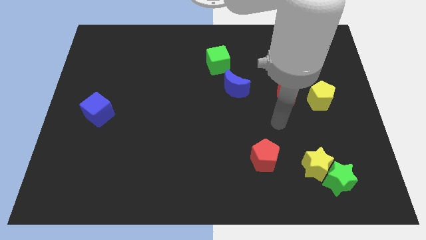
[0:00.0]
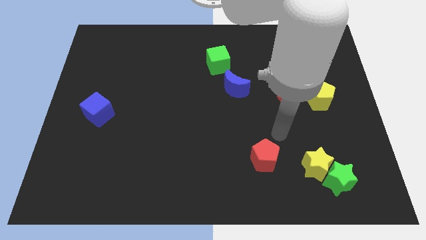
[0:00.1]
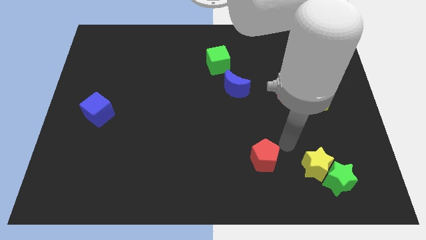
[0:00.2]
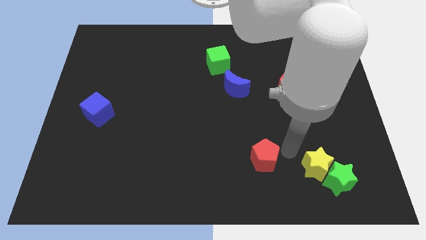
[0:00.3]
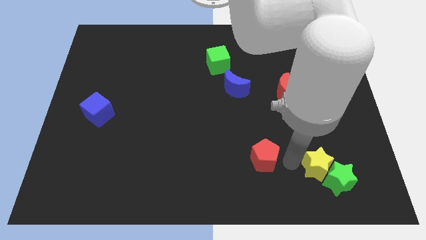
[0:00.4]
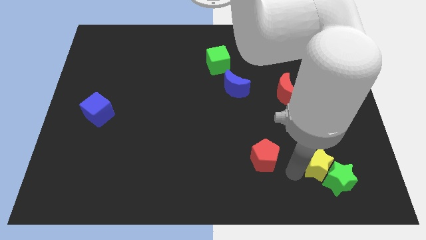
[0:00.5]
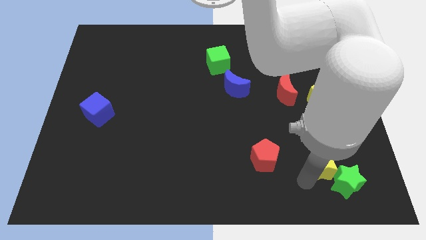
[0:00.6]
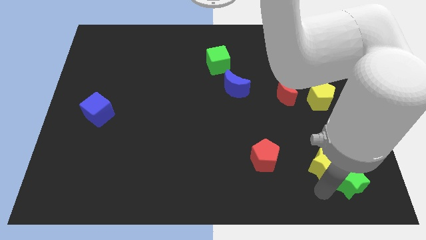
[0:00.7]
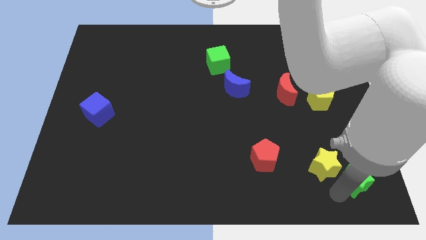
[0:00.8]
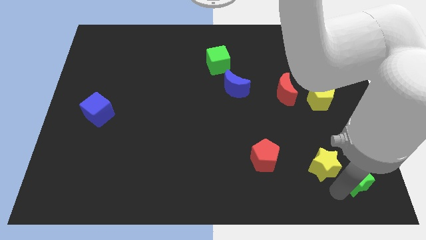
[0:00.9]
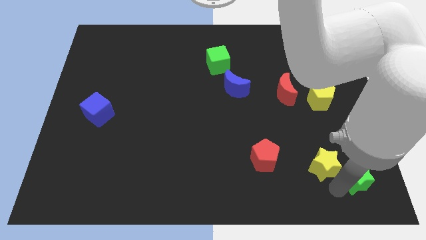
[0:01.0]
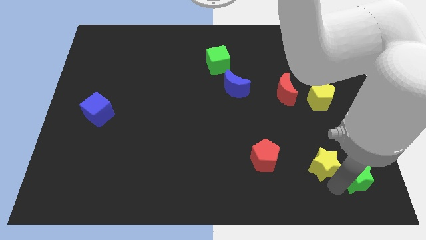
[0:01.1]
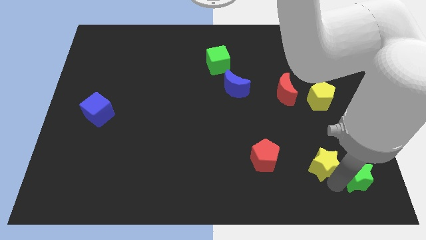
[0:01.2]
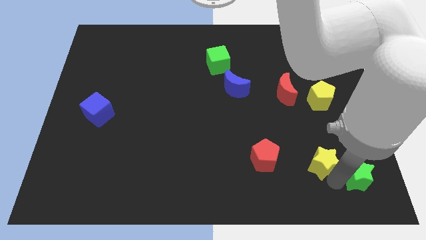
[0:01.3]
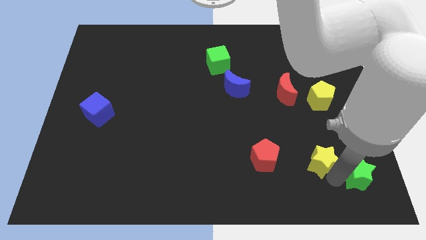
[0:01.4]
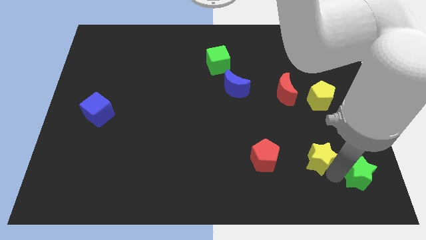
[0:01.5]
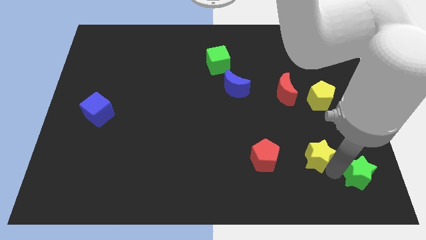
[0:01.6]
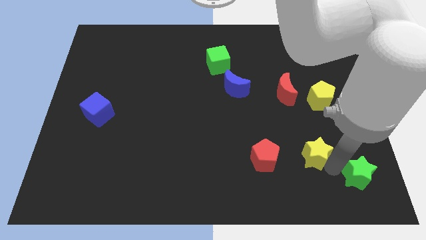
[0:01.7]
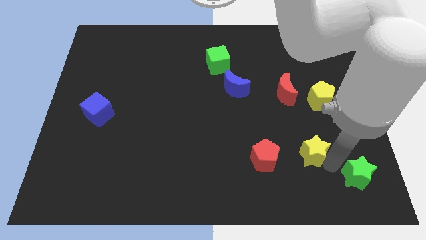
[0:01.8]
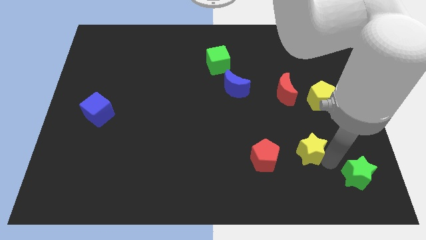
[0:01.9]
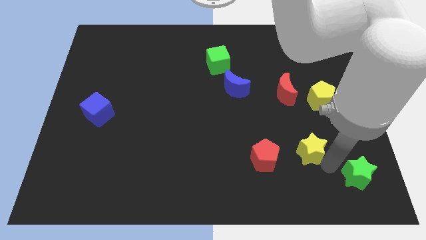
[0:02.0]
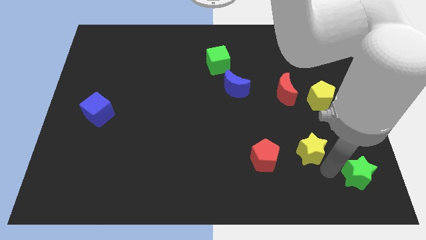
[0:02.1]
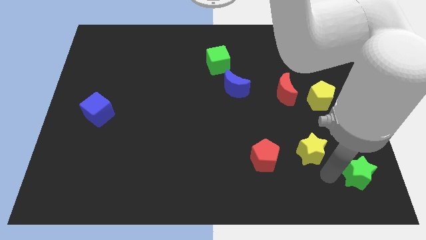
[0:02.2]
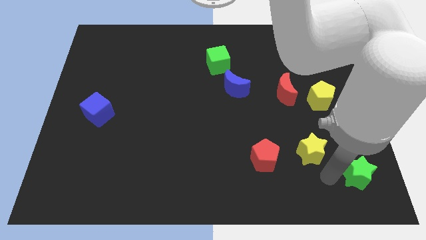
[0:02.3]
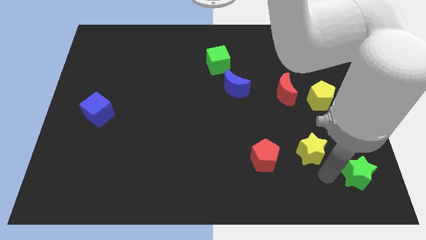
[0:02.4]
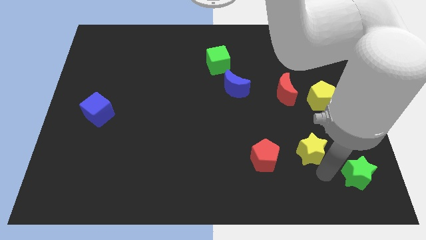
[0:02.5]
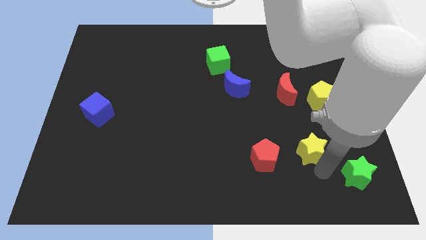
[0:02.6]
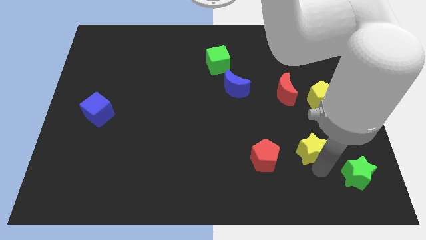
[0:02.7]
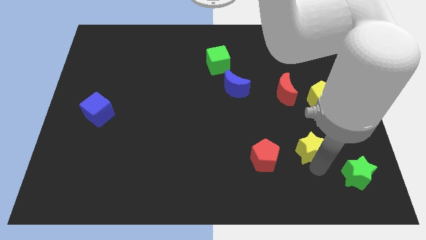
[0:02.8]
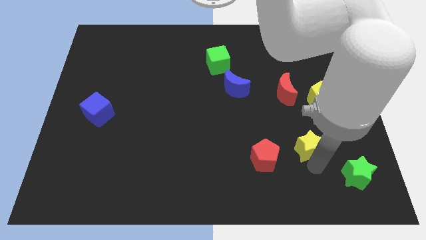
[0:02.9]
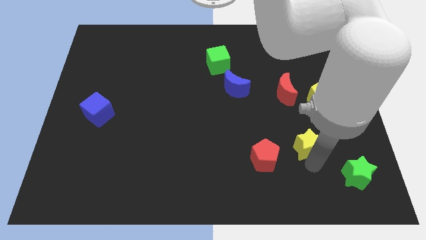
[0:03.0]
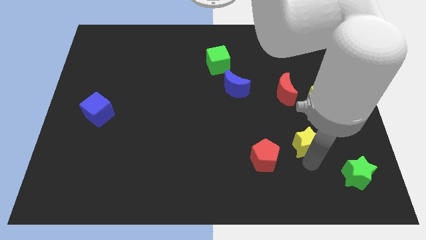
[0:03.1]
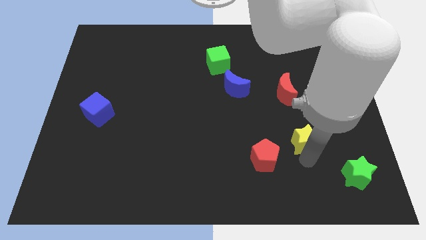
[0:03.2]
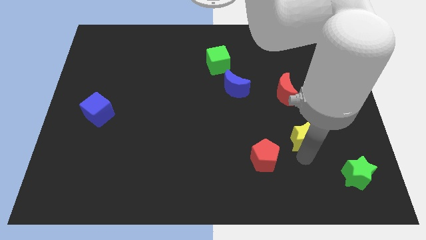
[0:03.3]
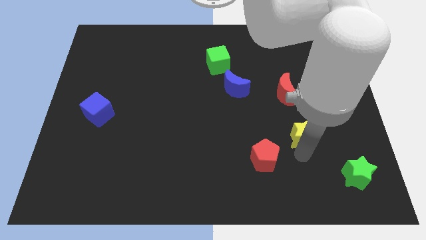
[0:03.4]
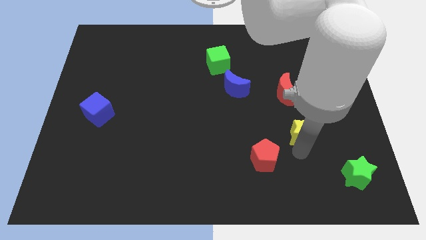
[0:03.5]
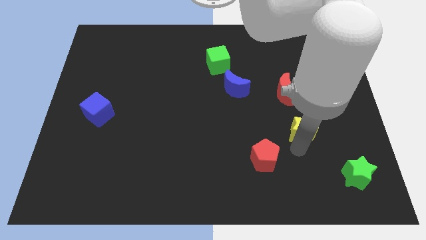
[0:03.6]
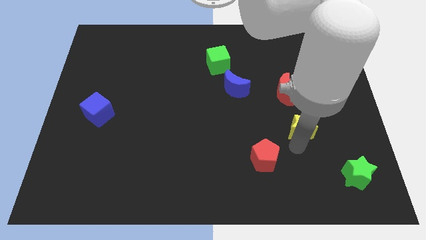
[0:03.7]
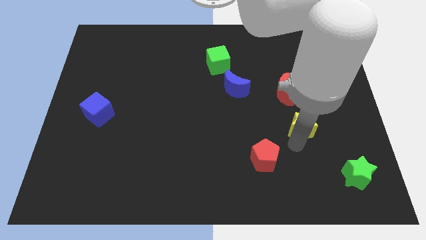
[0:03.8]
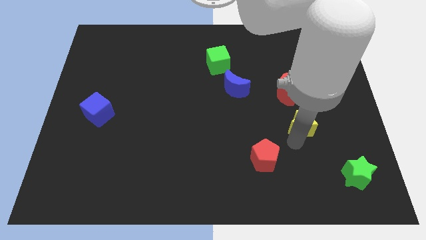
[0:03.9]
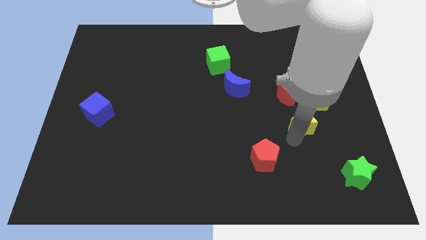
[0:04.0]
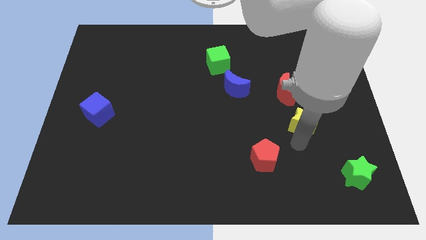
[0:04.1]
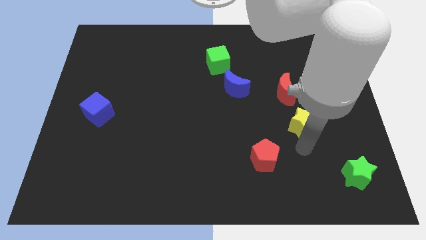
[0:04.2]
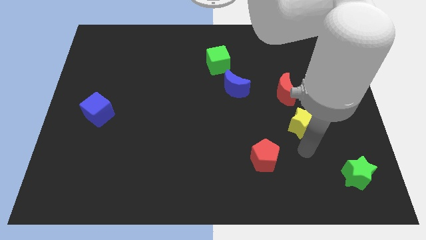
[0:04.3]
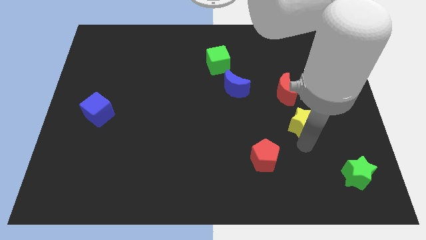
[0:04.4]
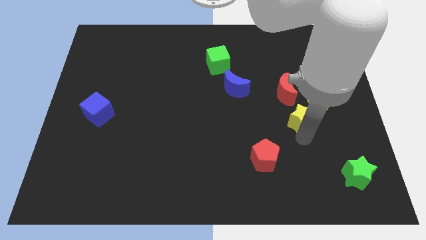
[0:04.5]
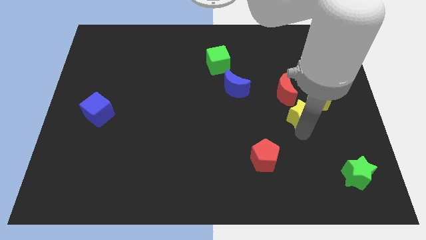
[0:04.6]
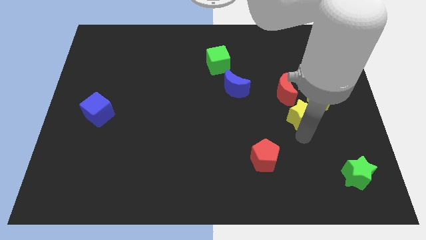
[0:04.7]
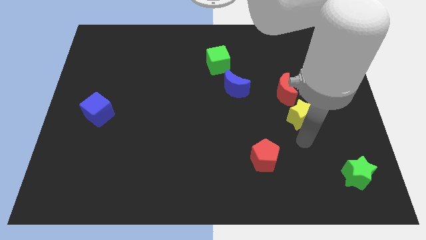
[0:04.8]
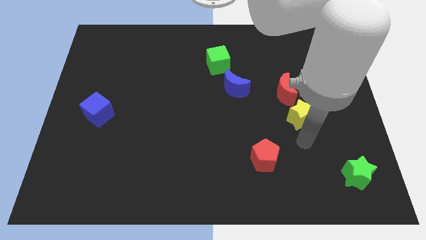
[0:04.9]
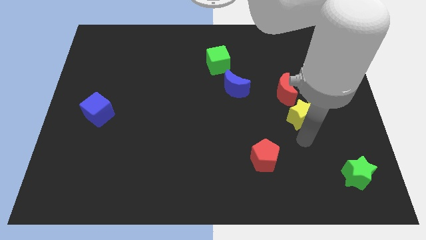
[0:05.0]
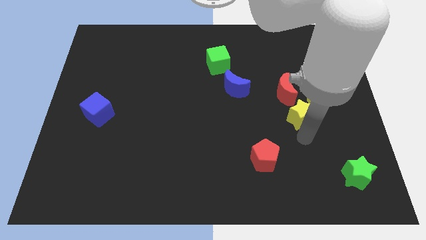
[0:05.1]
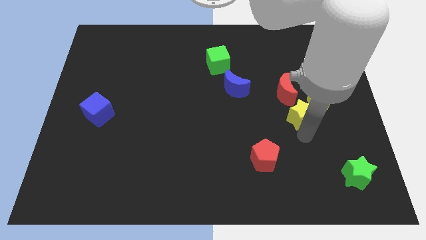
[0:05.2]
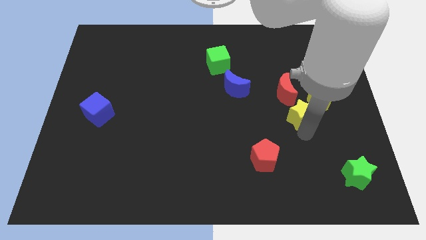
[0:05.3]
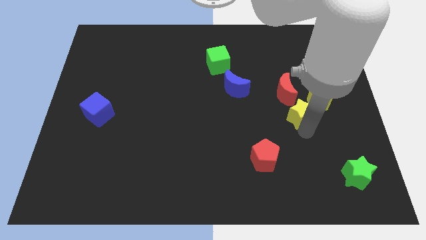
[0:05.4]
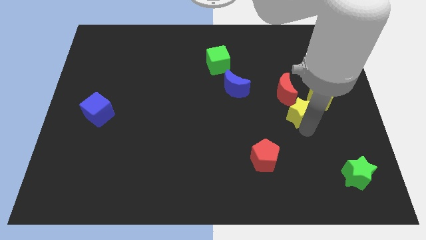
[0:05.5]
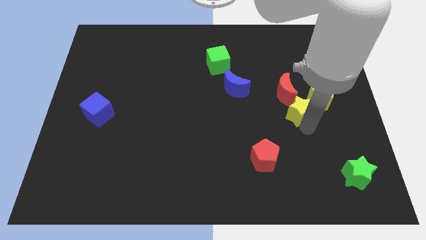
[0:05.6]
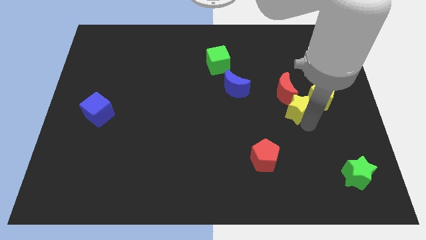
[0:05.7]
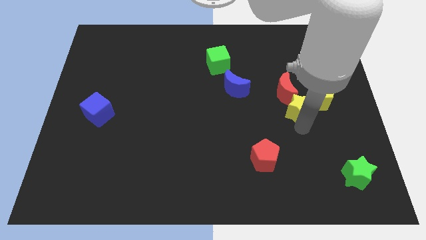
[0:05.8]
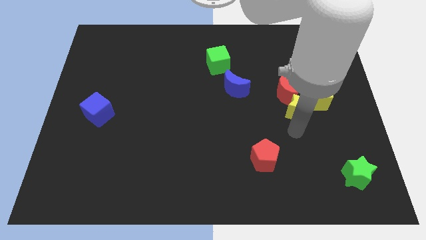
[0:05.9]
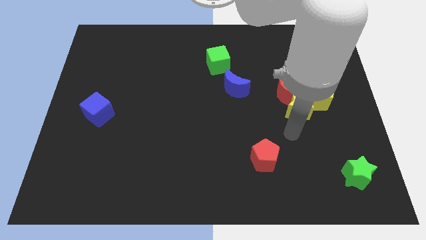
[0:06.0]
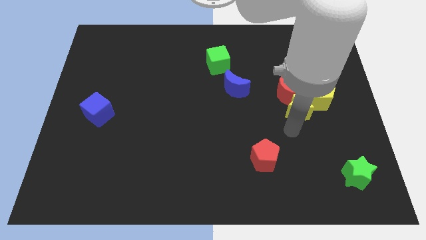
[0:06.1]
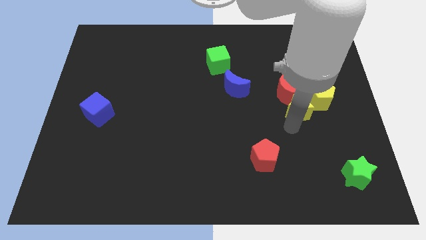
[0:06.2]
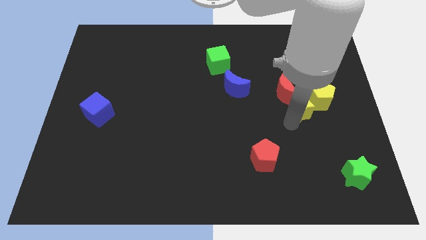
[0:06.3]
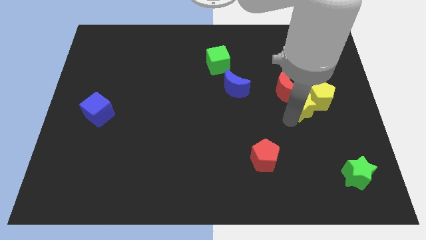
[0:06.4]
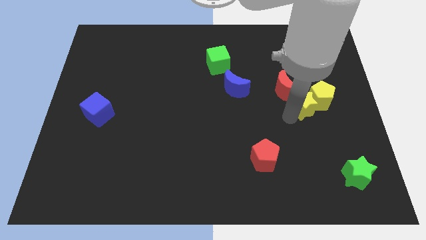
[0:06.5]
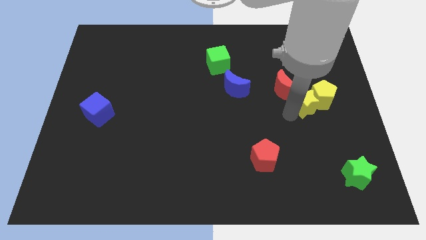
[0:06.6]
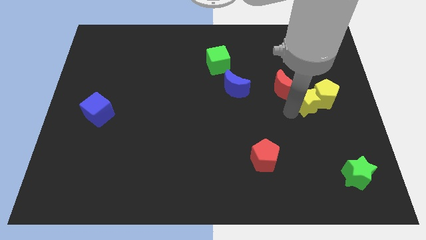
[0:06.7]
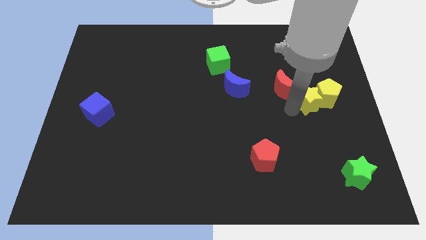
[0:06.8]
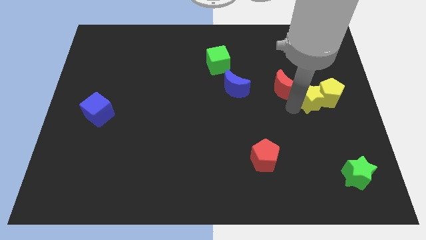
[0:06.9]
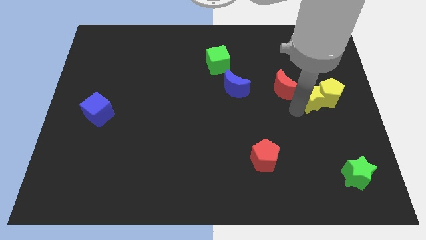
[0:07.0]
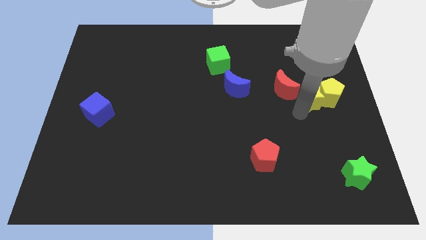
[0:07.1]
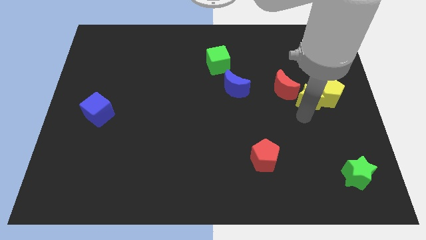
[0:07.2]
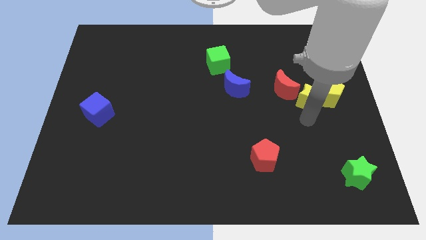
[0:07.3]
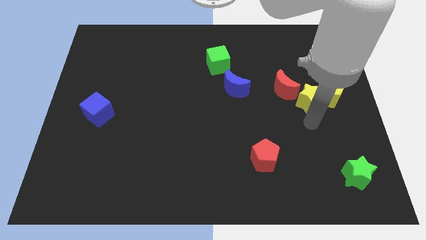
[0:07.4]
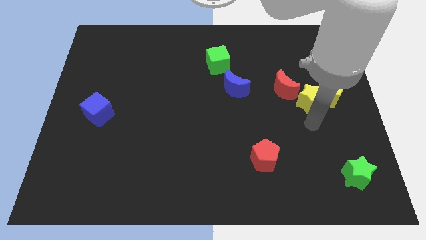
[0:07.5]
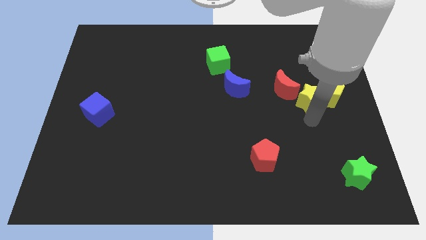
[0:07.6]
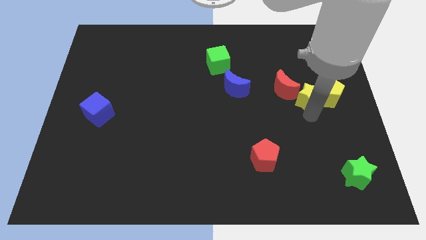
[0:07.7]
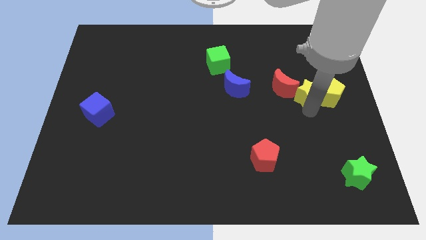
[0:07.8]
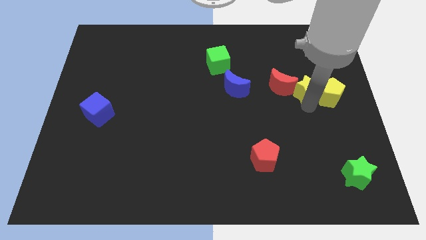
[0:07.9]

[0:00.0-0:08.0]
move the yellow star upwards

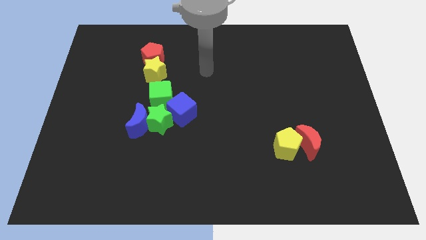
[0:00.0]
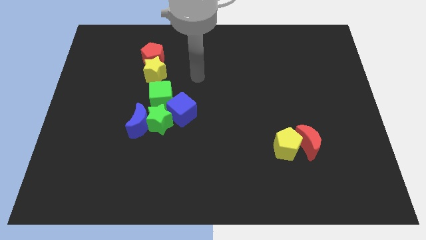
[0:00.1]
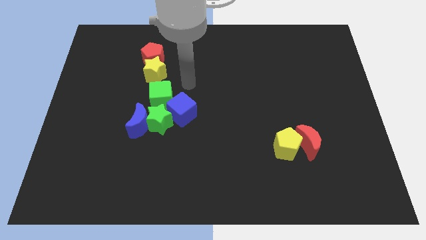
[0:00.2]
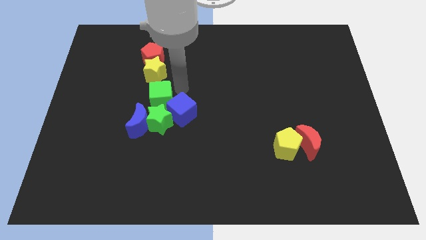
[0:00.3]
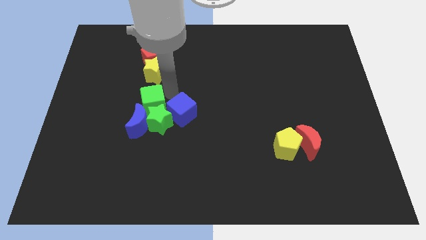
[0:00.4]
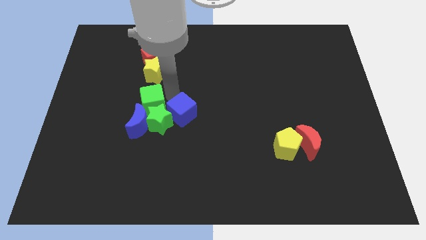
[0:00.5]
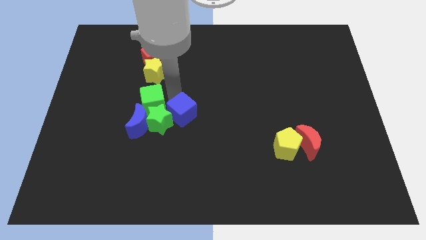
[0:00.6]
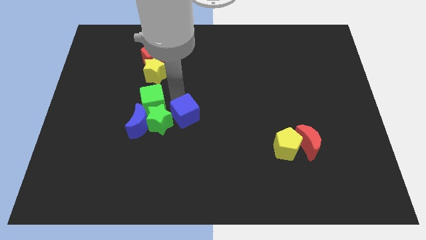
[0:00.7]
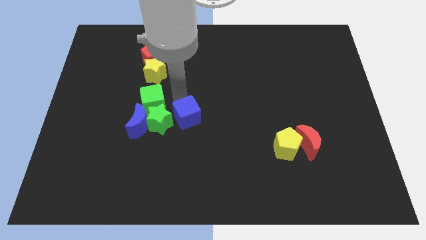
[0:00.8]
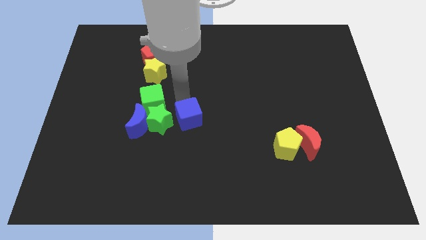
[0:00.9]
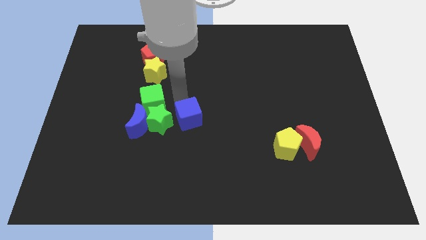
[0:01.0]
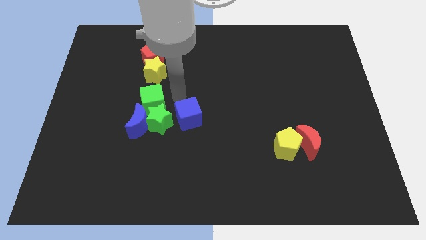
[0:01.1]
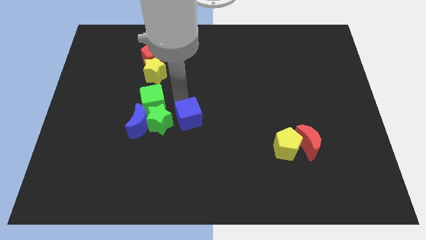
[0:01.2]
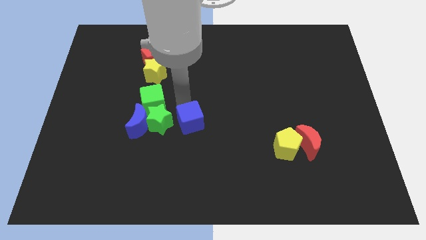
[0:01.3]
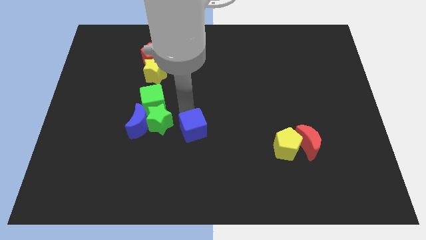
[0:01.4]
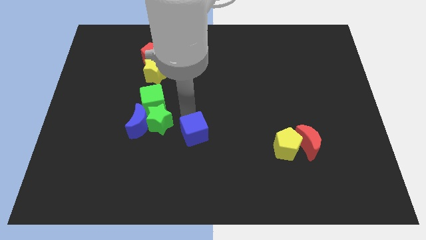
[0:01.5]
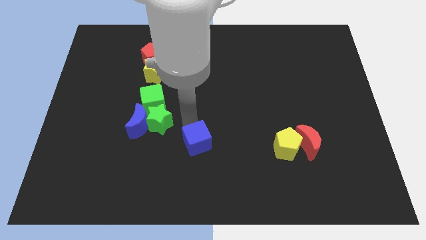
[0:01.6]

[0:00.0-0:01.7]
push the blue cube a little bit downwards and to the right diagonally
